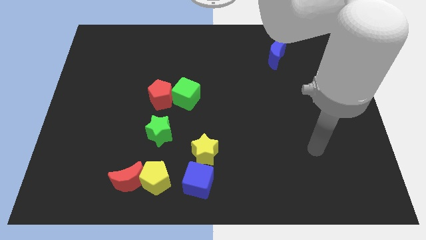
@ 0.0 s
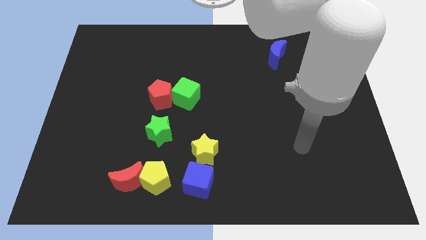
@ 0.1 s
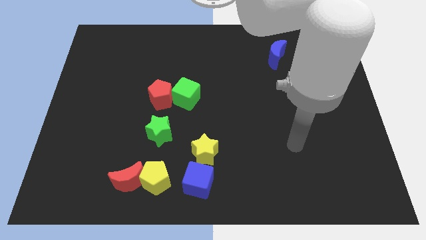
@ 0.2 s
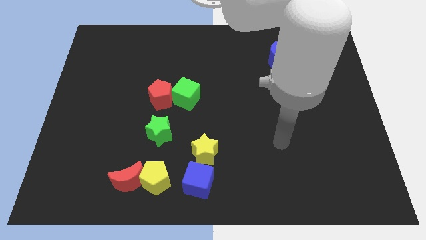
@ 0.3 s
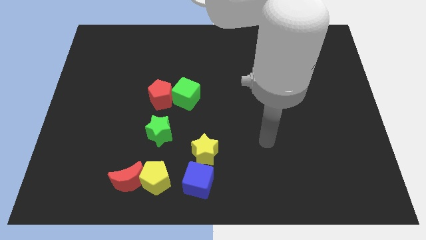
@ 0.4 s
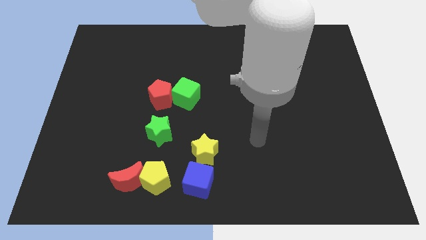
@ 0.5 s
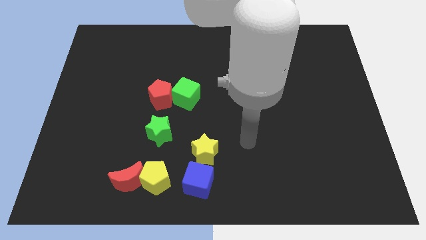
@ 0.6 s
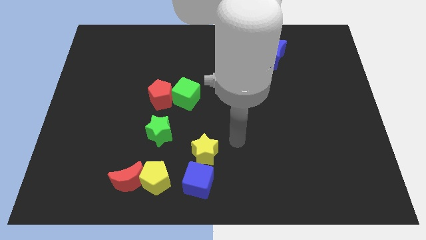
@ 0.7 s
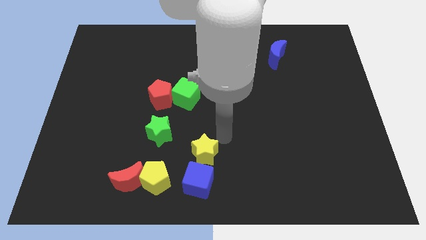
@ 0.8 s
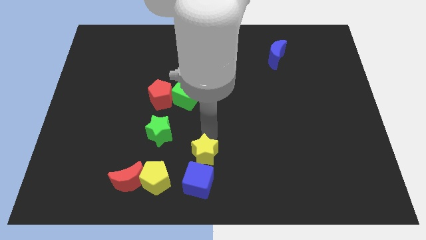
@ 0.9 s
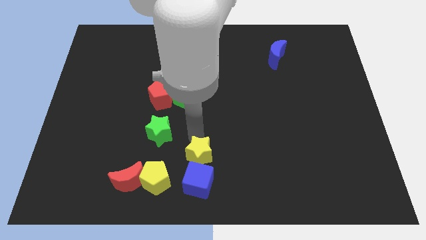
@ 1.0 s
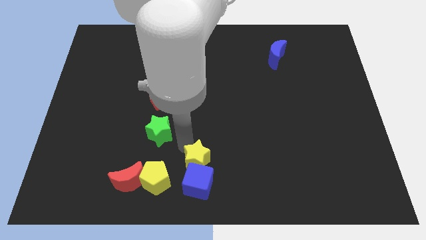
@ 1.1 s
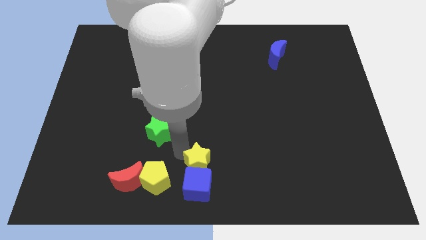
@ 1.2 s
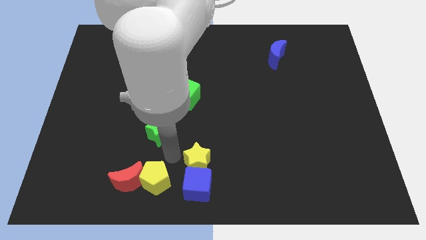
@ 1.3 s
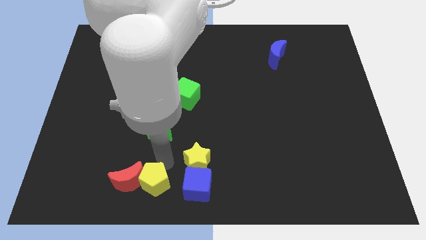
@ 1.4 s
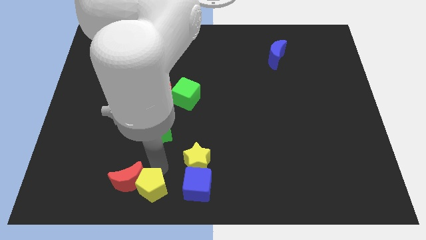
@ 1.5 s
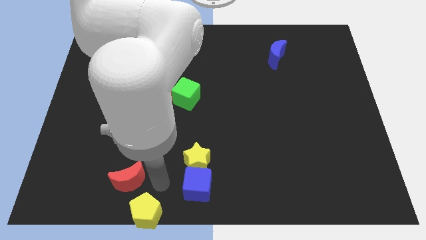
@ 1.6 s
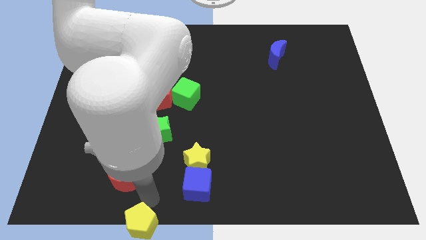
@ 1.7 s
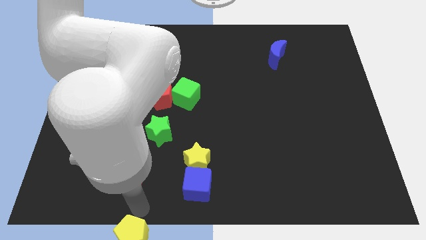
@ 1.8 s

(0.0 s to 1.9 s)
pull the red moon apart from the yellow pentagon

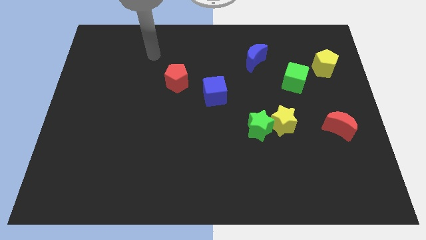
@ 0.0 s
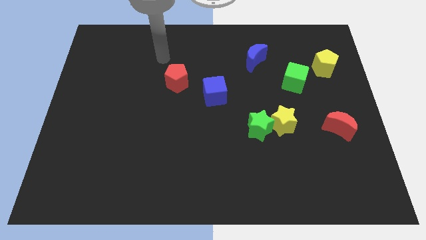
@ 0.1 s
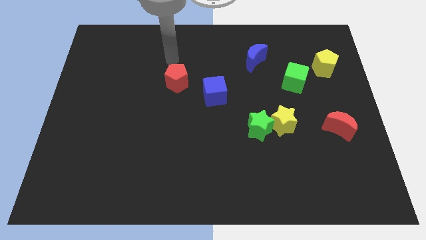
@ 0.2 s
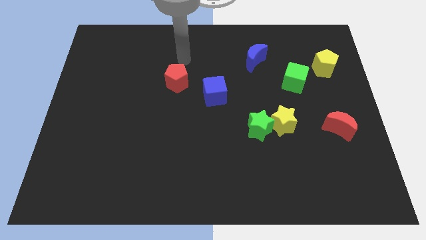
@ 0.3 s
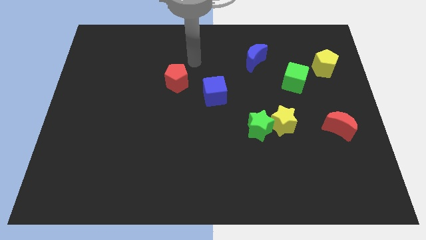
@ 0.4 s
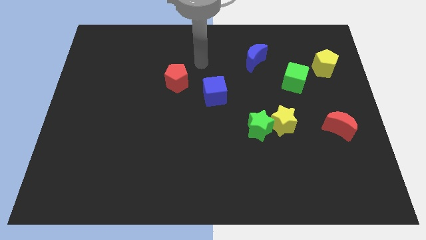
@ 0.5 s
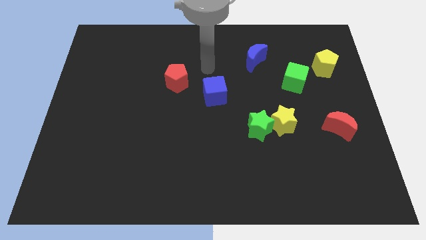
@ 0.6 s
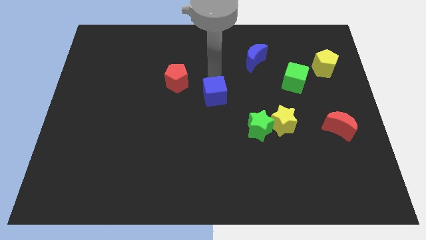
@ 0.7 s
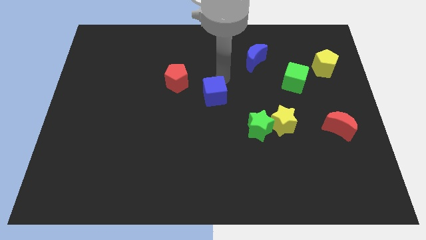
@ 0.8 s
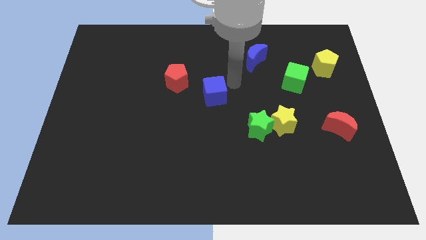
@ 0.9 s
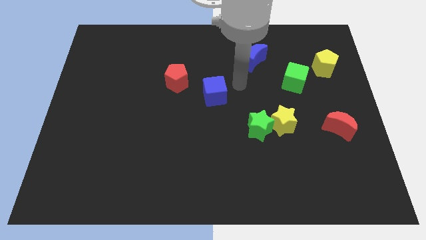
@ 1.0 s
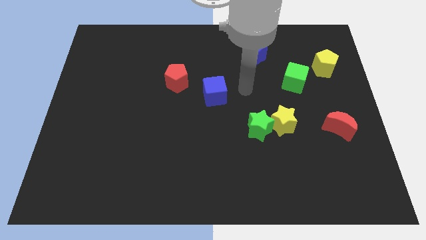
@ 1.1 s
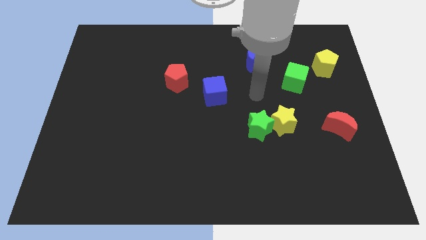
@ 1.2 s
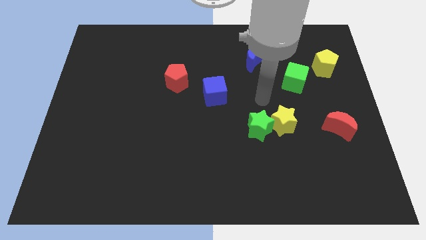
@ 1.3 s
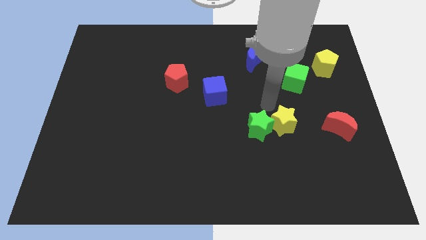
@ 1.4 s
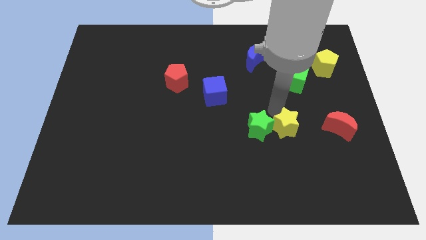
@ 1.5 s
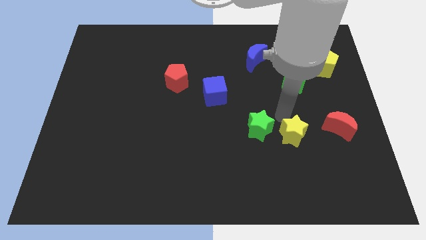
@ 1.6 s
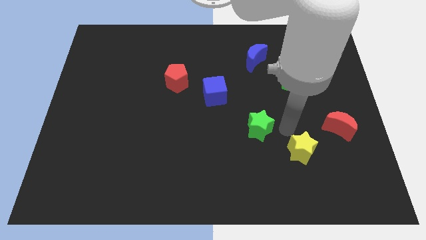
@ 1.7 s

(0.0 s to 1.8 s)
separate the green star from the yellow star

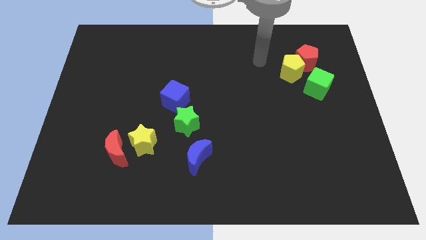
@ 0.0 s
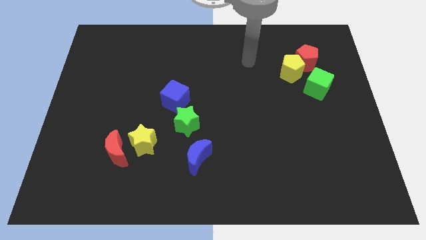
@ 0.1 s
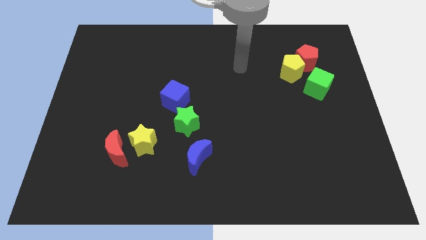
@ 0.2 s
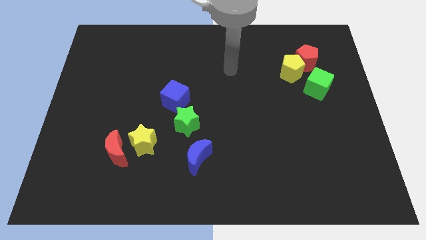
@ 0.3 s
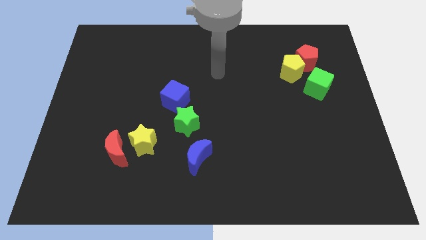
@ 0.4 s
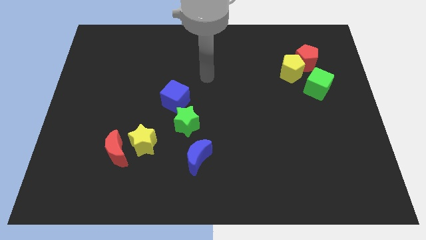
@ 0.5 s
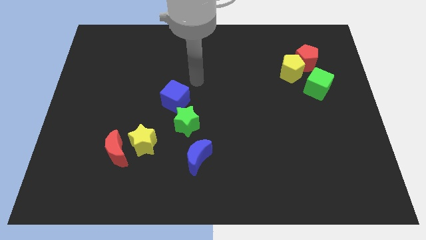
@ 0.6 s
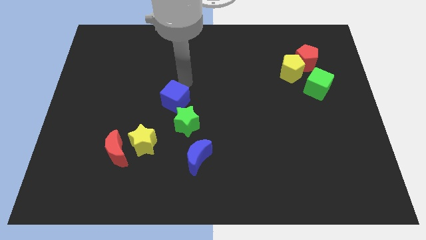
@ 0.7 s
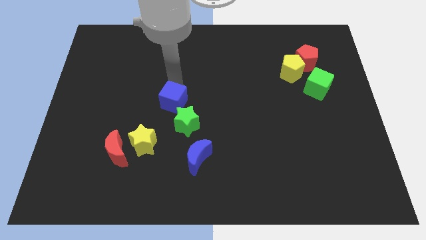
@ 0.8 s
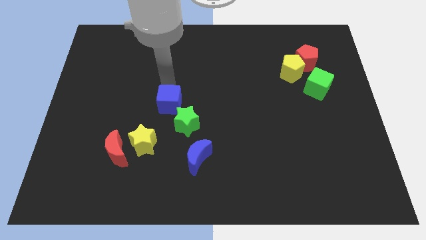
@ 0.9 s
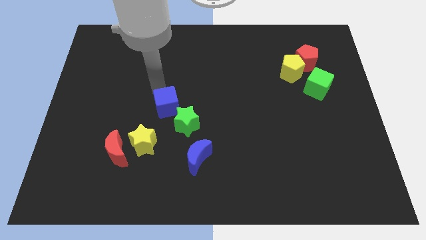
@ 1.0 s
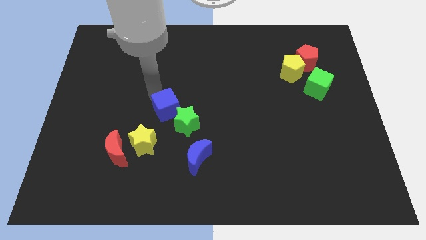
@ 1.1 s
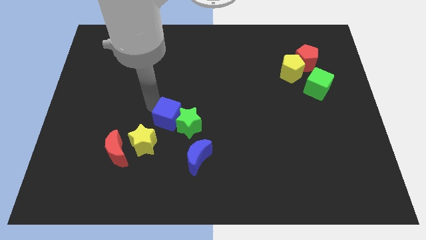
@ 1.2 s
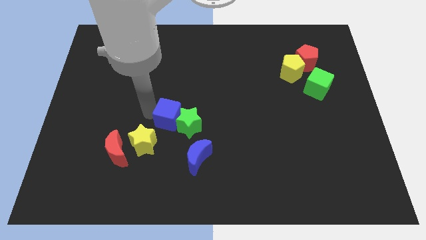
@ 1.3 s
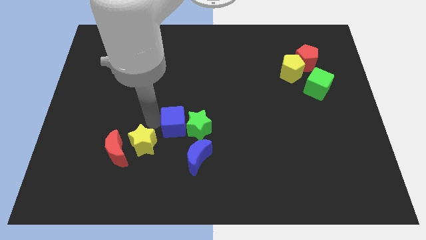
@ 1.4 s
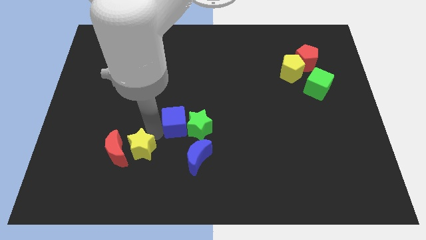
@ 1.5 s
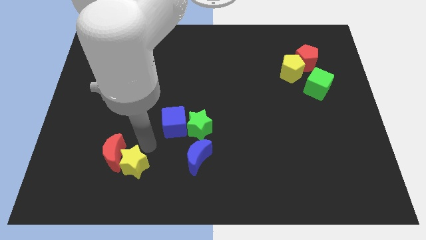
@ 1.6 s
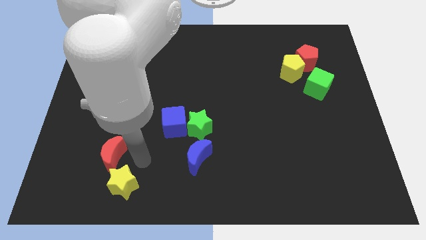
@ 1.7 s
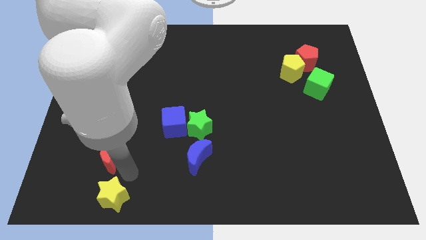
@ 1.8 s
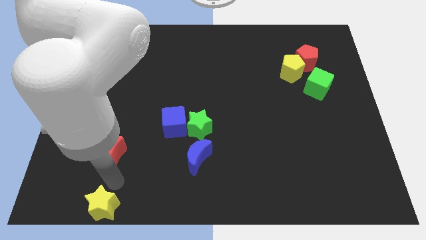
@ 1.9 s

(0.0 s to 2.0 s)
separate the red moon from the yellow star

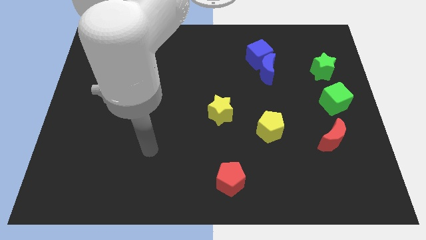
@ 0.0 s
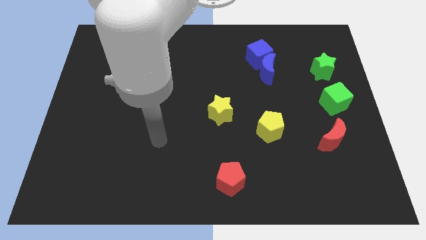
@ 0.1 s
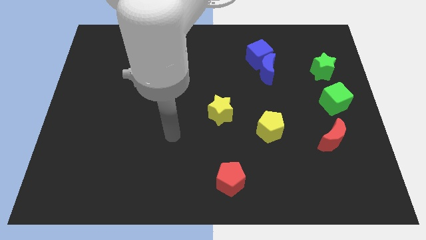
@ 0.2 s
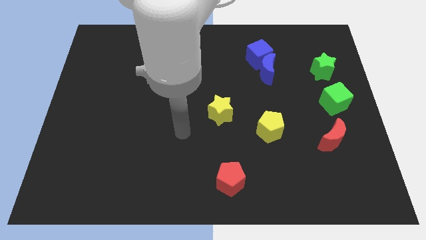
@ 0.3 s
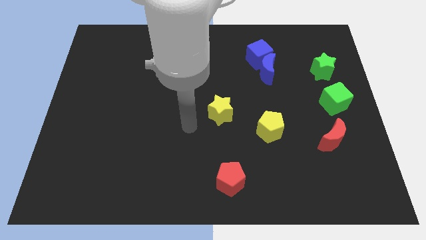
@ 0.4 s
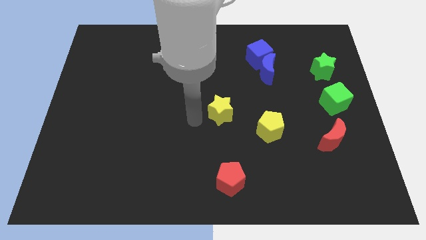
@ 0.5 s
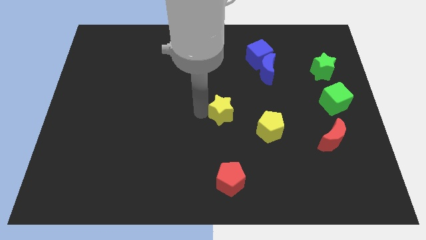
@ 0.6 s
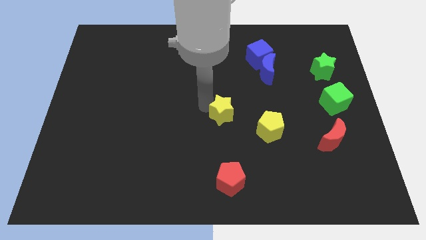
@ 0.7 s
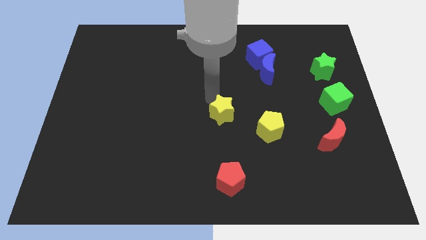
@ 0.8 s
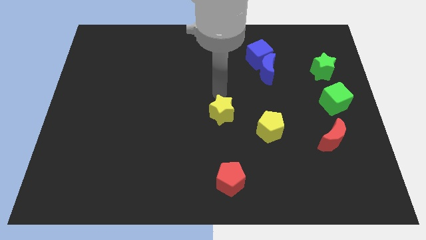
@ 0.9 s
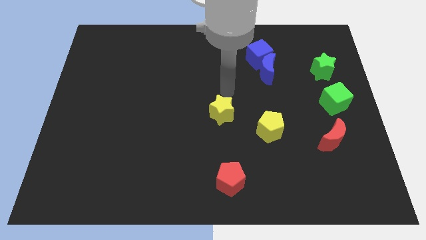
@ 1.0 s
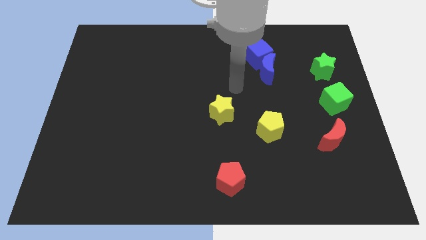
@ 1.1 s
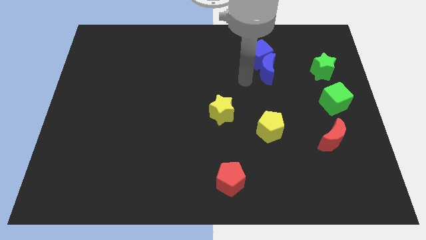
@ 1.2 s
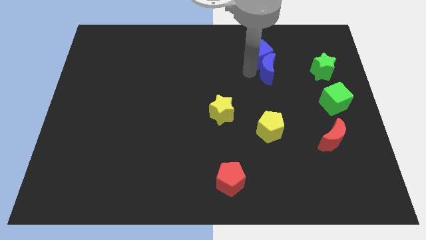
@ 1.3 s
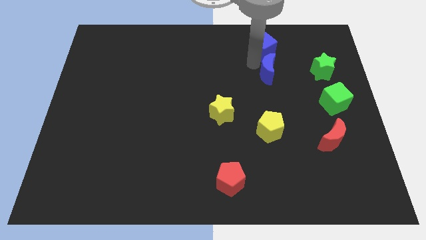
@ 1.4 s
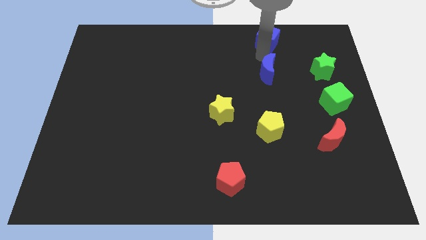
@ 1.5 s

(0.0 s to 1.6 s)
pull the blue moon apart from the blue cube

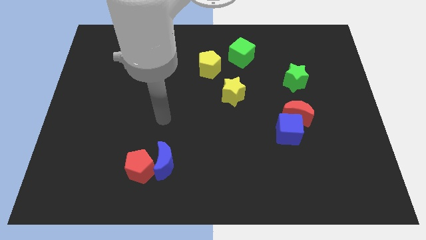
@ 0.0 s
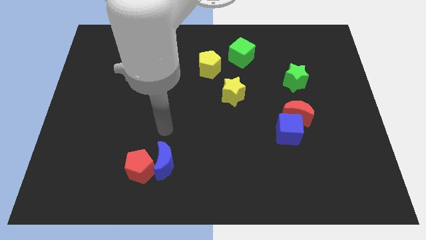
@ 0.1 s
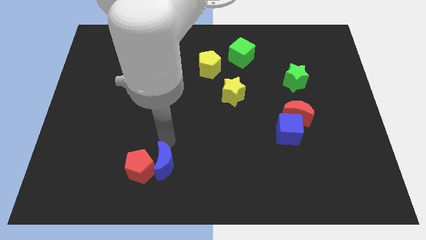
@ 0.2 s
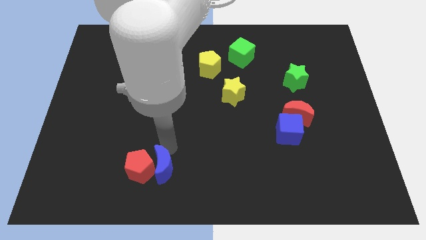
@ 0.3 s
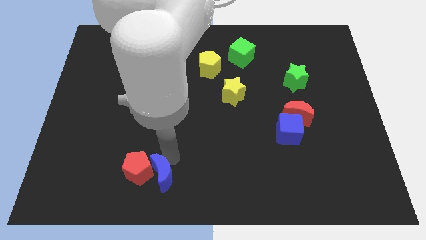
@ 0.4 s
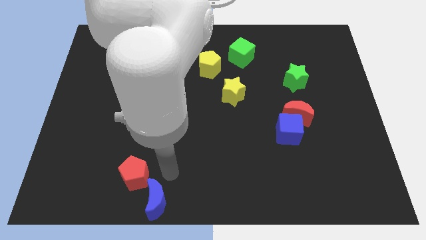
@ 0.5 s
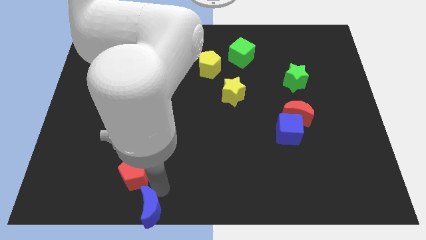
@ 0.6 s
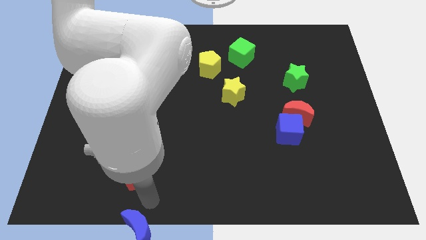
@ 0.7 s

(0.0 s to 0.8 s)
move the red pentagon away from the blue moon

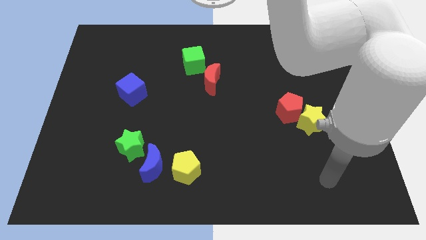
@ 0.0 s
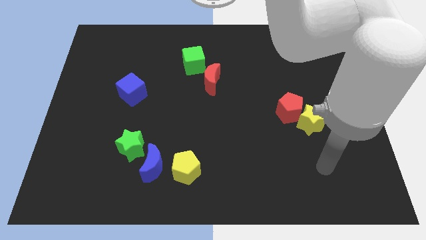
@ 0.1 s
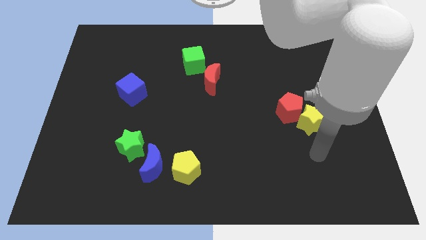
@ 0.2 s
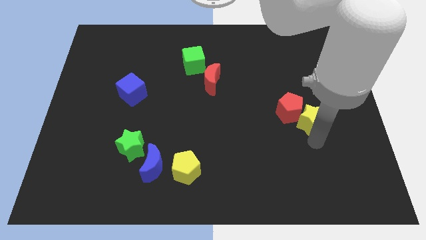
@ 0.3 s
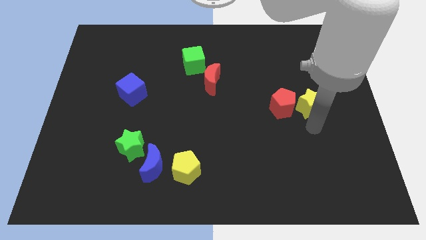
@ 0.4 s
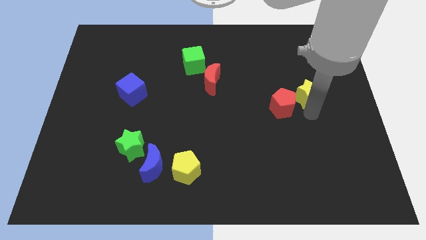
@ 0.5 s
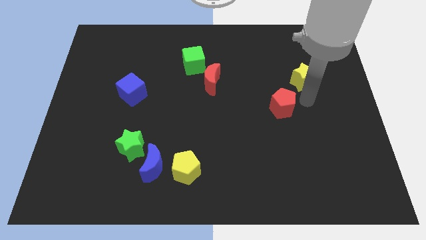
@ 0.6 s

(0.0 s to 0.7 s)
pull the red pentagon apart from the yellow star

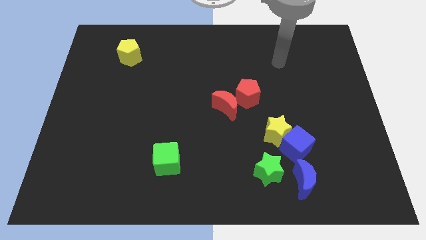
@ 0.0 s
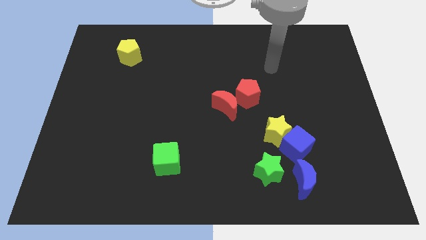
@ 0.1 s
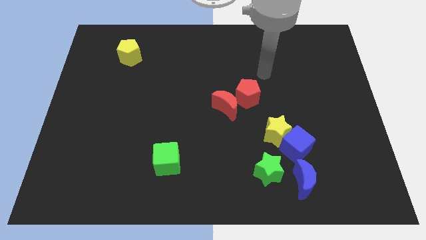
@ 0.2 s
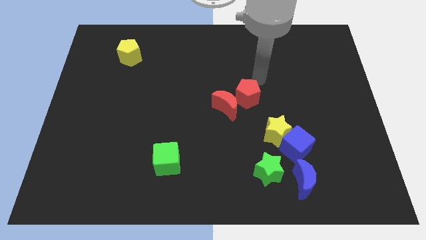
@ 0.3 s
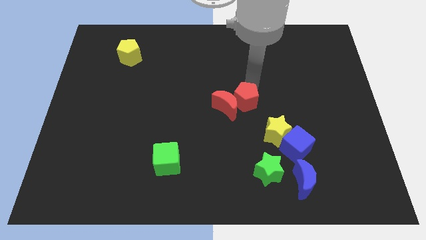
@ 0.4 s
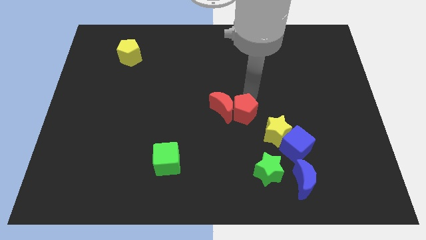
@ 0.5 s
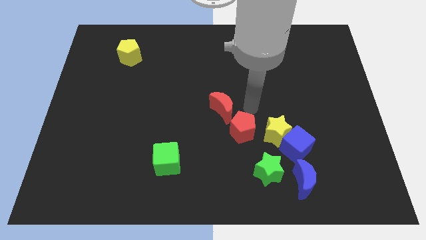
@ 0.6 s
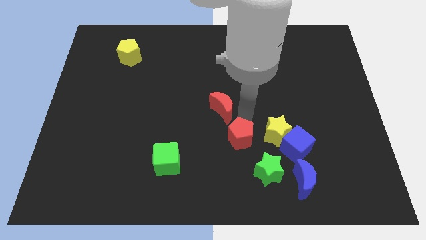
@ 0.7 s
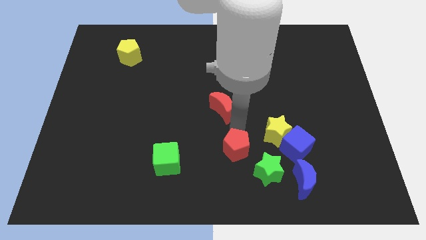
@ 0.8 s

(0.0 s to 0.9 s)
move the red moon away from the red pentagon
